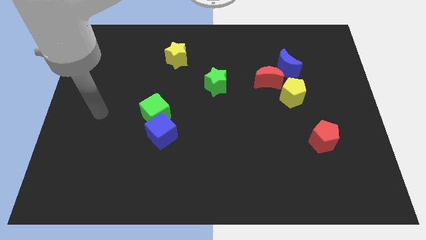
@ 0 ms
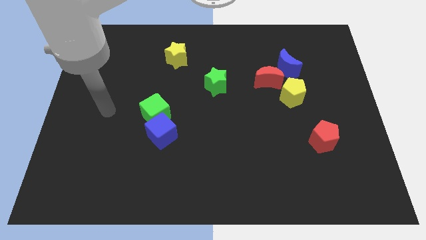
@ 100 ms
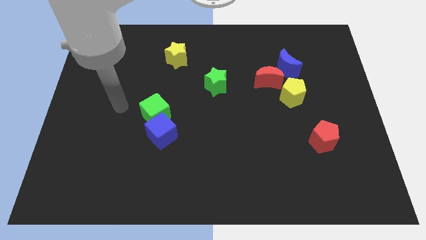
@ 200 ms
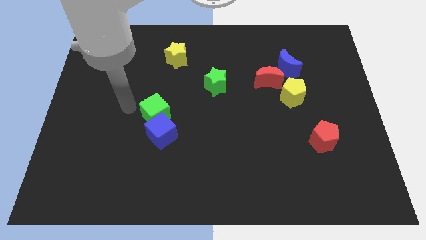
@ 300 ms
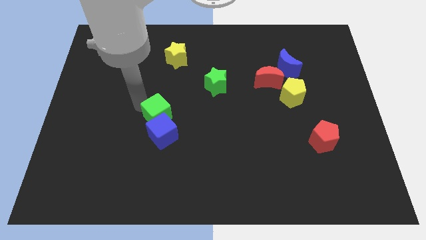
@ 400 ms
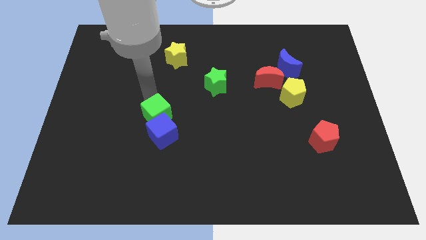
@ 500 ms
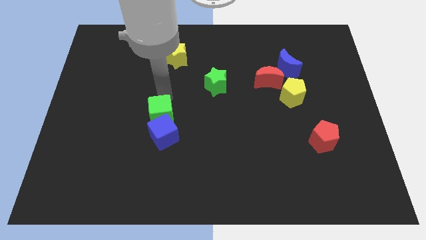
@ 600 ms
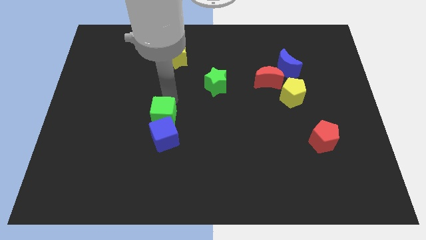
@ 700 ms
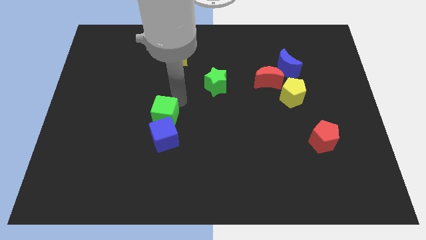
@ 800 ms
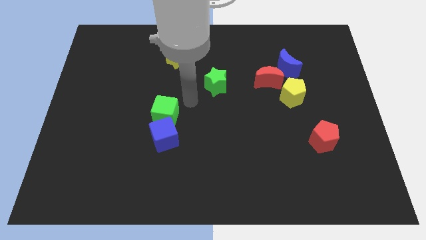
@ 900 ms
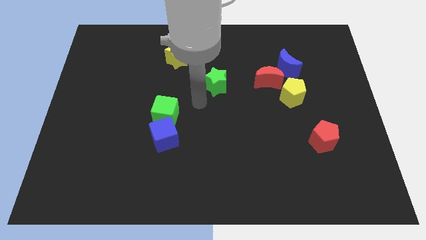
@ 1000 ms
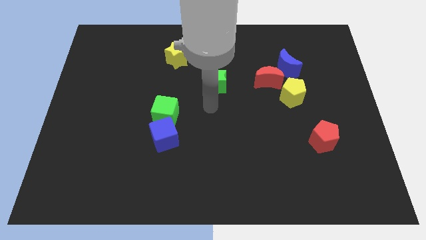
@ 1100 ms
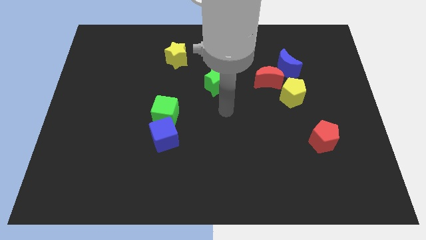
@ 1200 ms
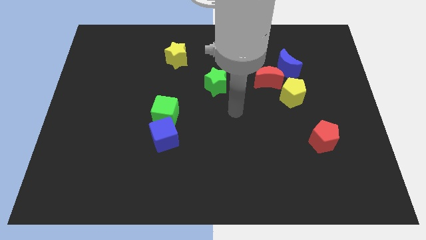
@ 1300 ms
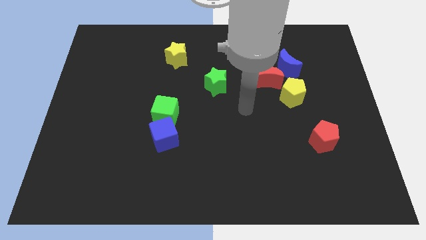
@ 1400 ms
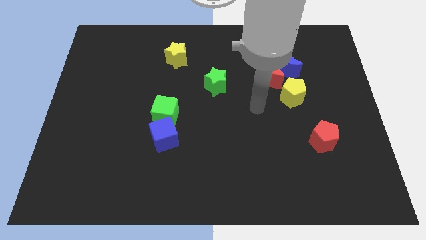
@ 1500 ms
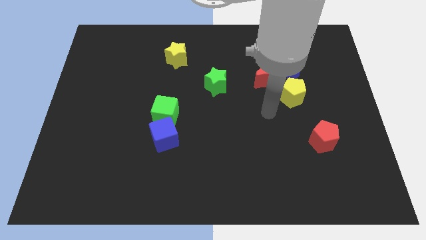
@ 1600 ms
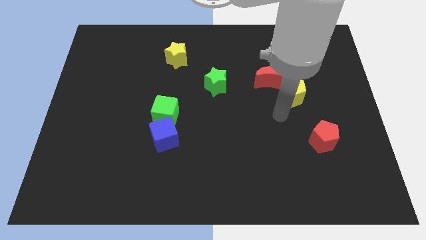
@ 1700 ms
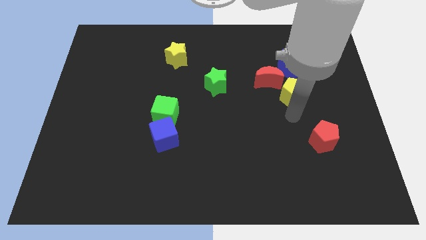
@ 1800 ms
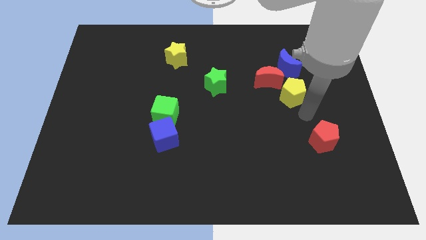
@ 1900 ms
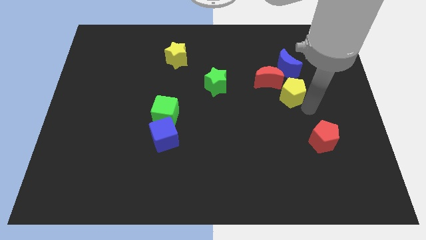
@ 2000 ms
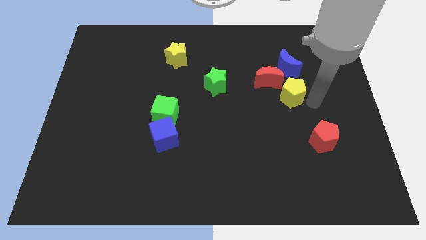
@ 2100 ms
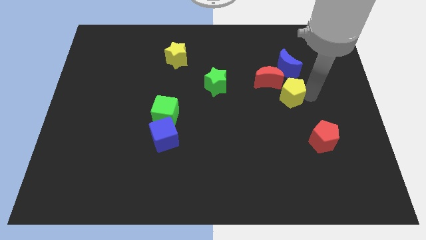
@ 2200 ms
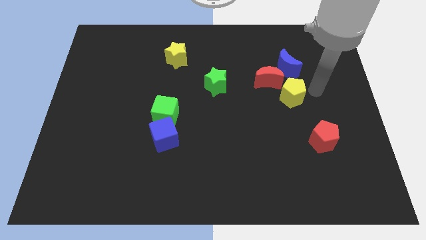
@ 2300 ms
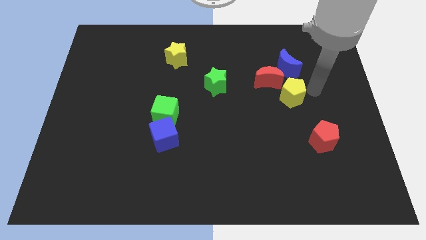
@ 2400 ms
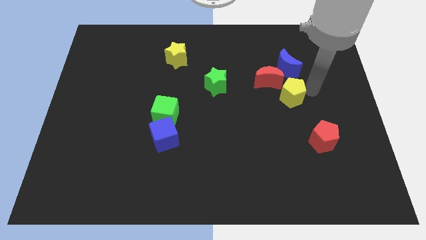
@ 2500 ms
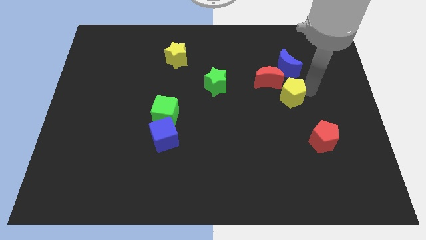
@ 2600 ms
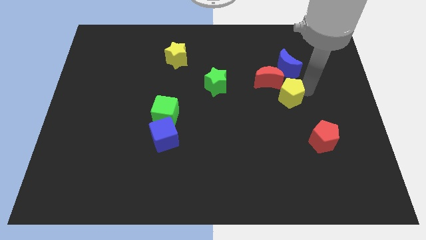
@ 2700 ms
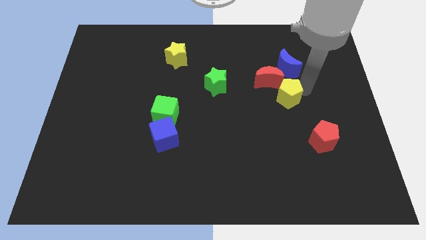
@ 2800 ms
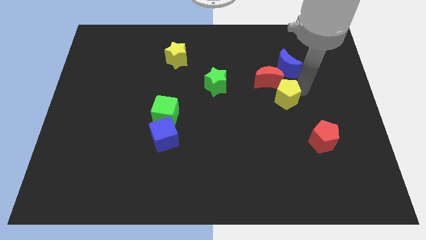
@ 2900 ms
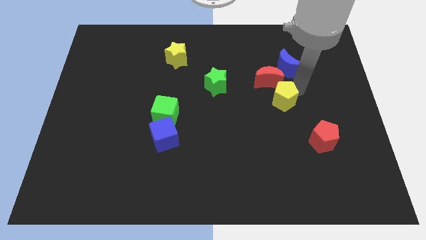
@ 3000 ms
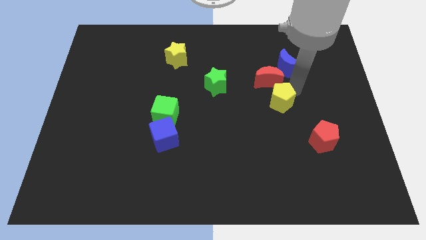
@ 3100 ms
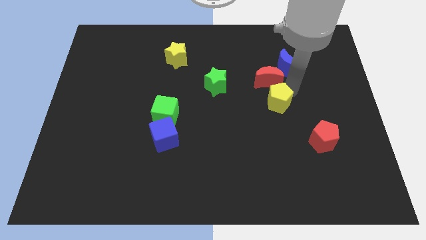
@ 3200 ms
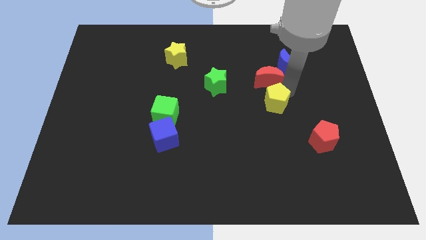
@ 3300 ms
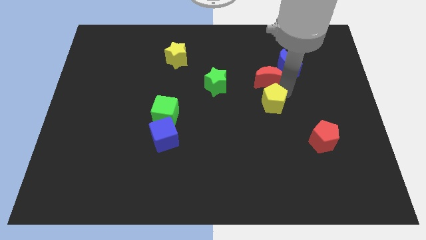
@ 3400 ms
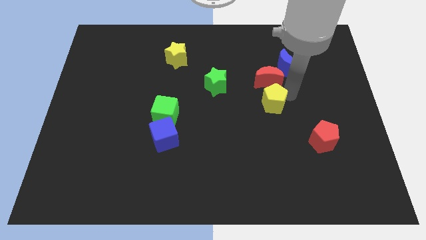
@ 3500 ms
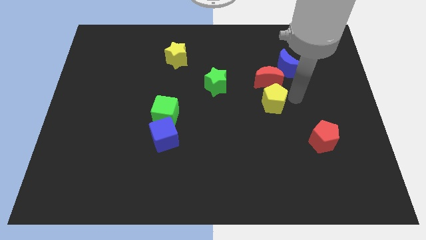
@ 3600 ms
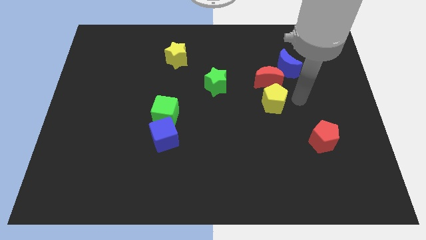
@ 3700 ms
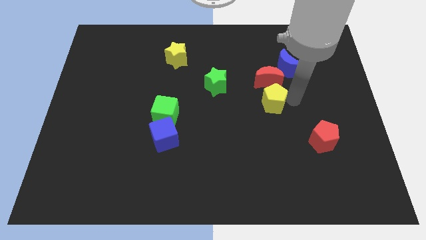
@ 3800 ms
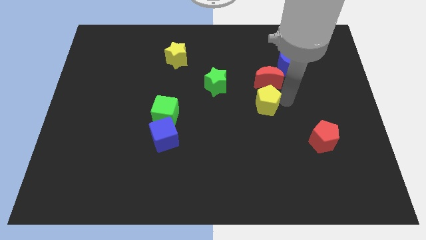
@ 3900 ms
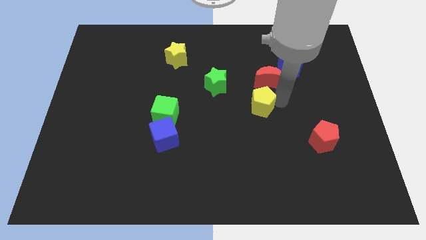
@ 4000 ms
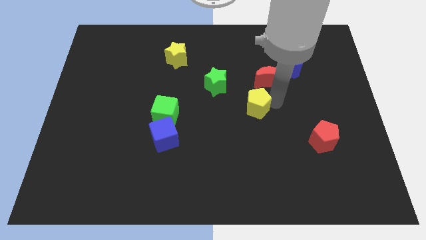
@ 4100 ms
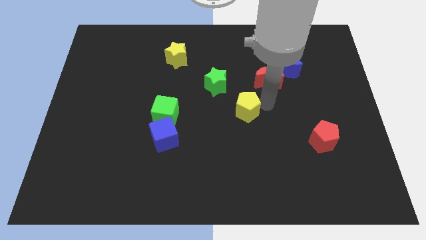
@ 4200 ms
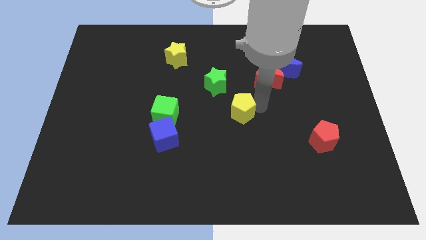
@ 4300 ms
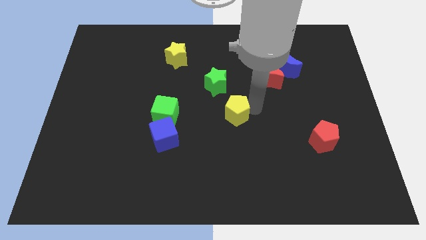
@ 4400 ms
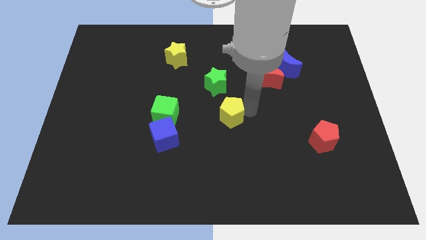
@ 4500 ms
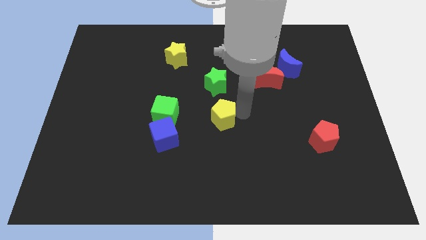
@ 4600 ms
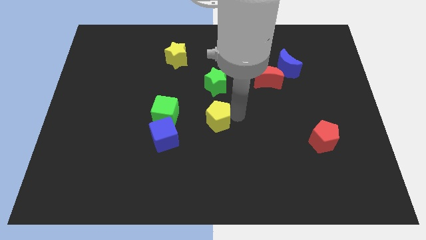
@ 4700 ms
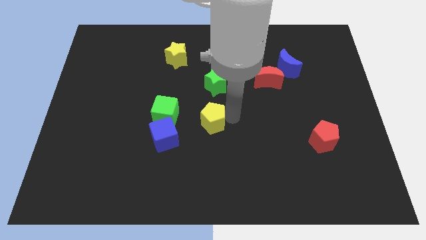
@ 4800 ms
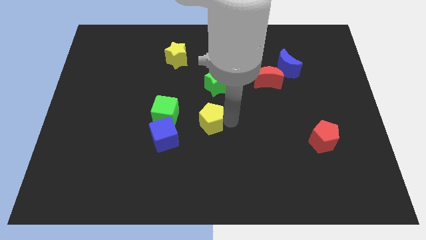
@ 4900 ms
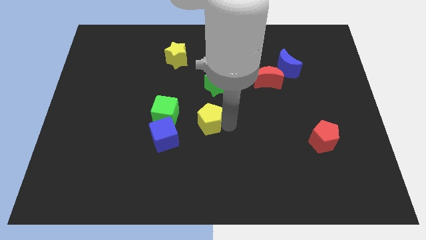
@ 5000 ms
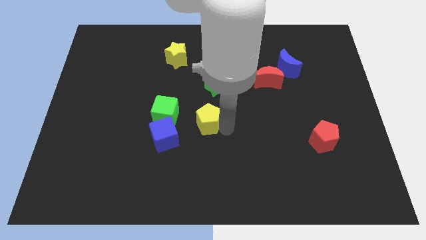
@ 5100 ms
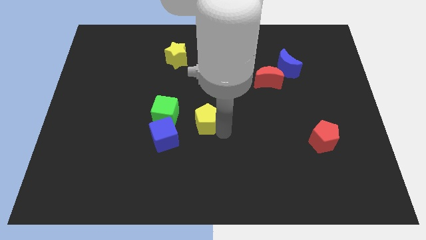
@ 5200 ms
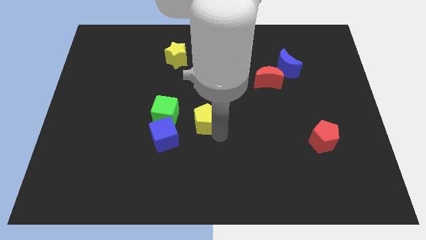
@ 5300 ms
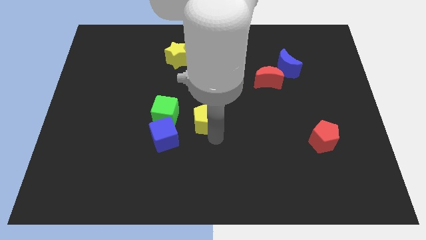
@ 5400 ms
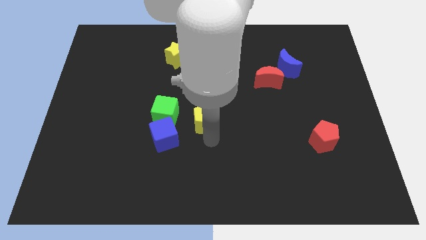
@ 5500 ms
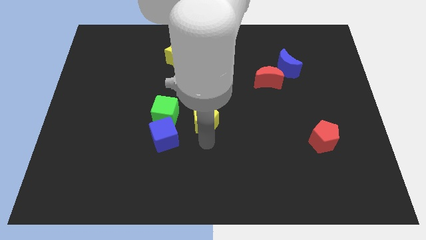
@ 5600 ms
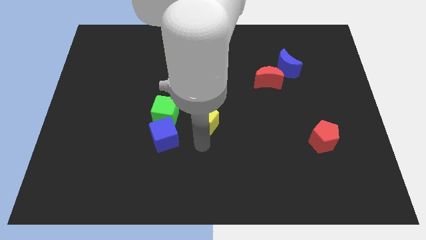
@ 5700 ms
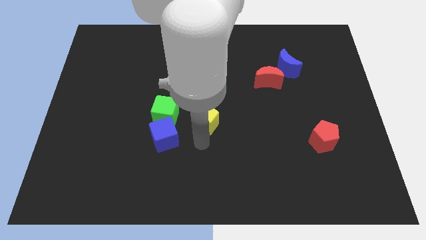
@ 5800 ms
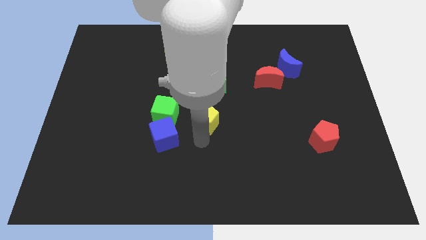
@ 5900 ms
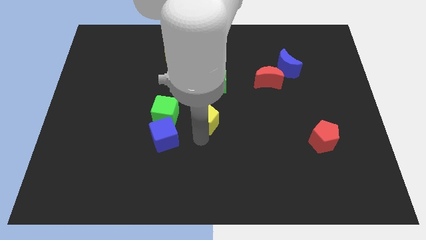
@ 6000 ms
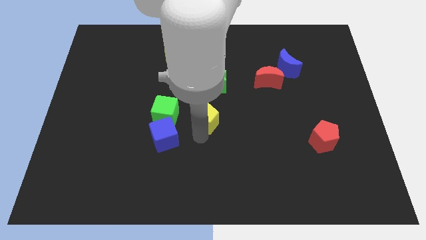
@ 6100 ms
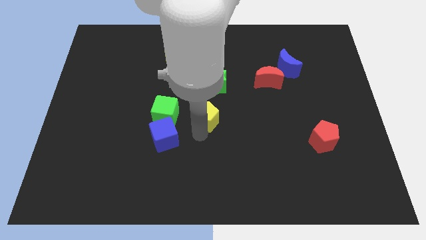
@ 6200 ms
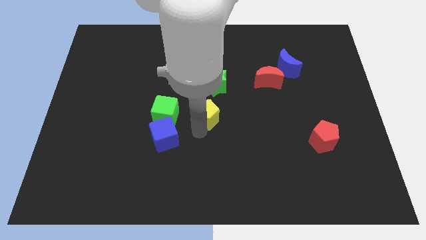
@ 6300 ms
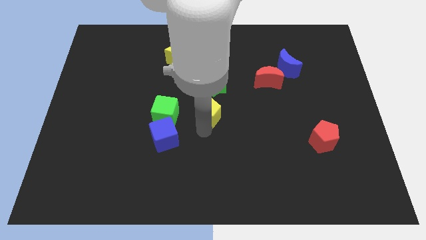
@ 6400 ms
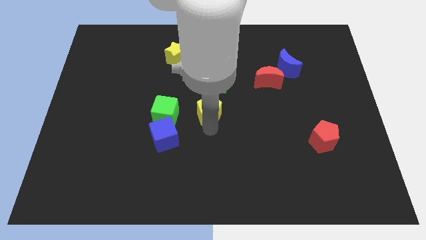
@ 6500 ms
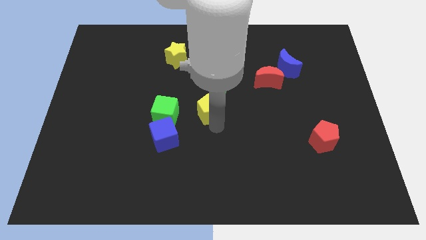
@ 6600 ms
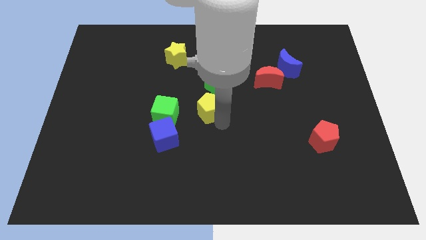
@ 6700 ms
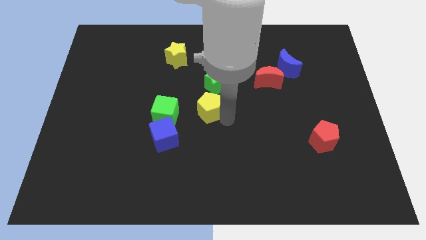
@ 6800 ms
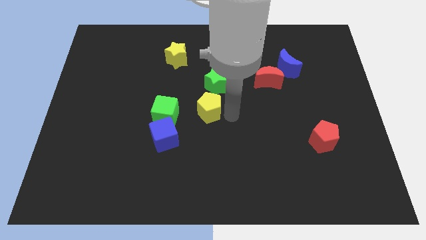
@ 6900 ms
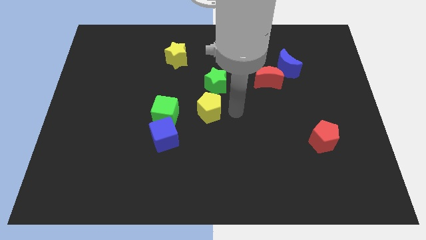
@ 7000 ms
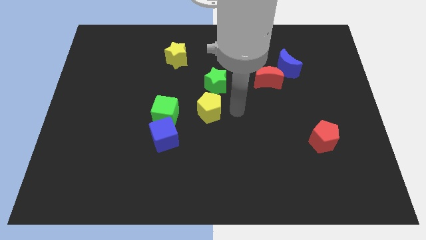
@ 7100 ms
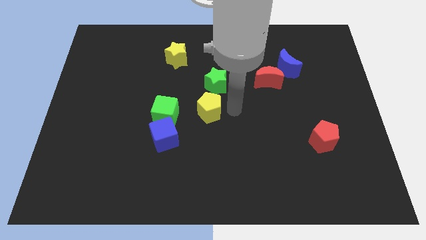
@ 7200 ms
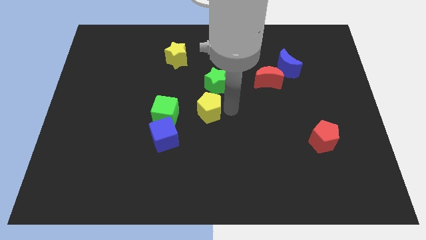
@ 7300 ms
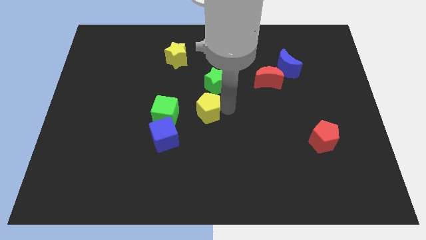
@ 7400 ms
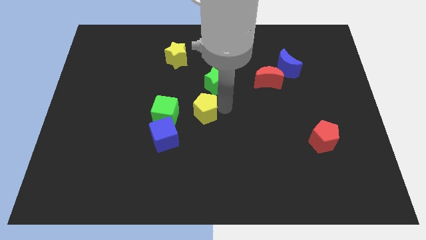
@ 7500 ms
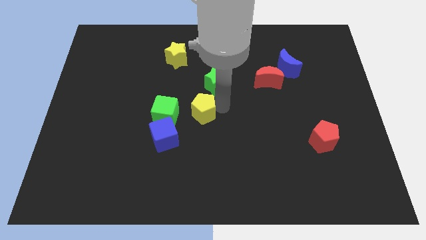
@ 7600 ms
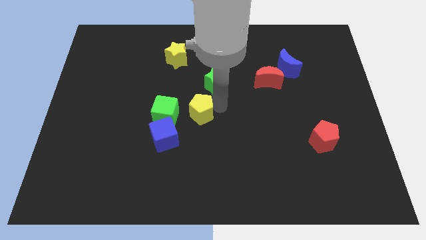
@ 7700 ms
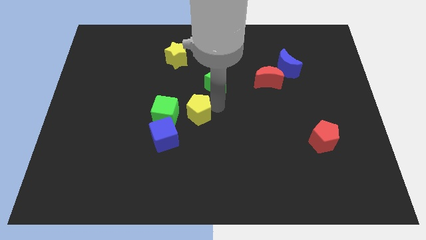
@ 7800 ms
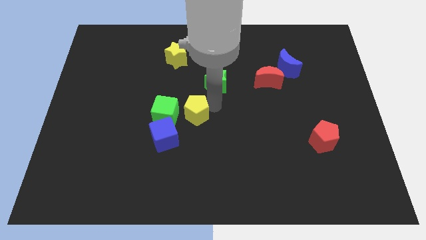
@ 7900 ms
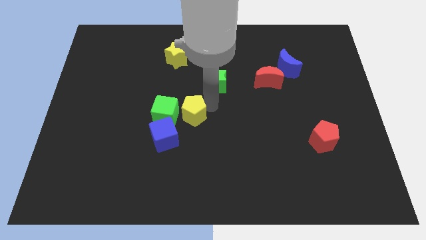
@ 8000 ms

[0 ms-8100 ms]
push the yellow pentagon next to the green cube

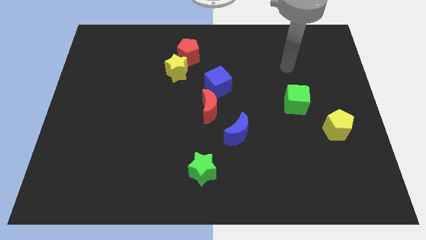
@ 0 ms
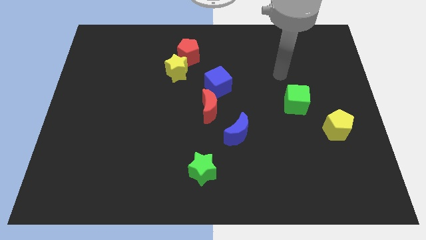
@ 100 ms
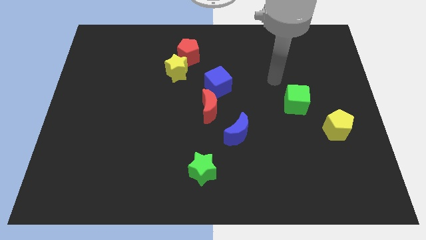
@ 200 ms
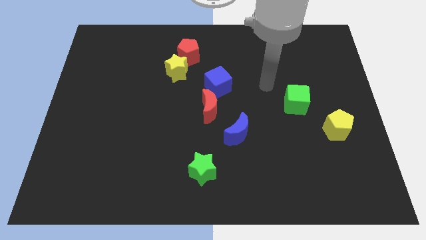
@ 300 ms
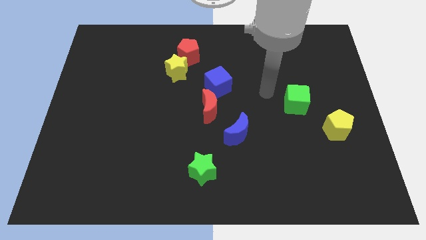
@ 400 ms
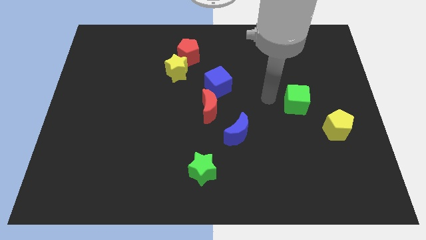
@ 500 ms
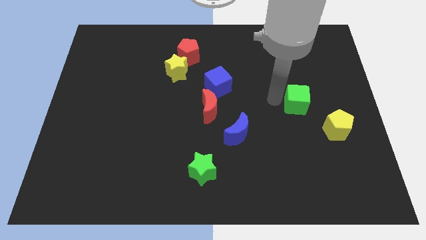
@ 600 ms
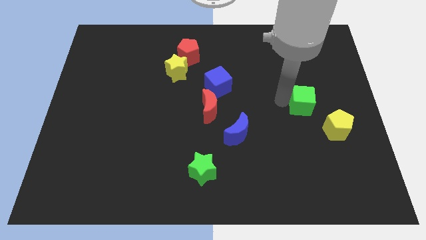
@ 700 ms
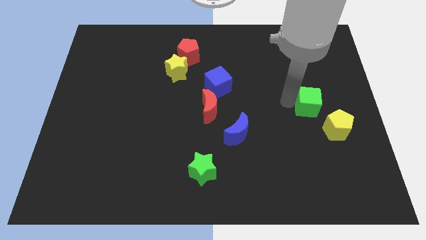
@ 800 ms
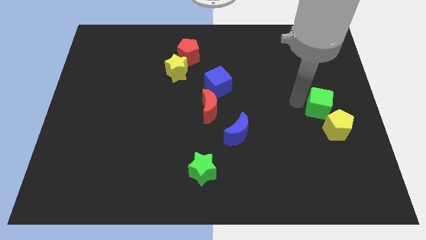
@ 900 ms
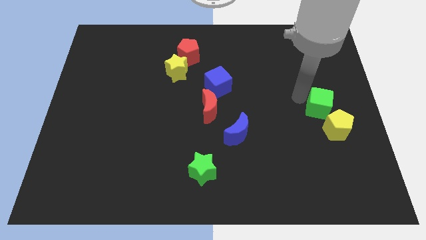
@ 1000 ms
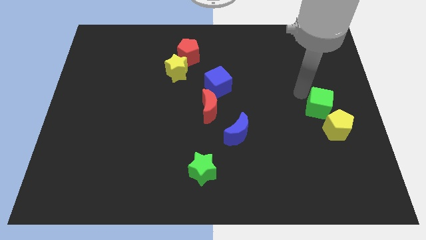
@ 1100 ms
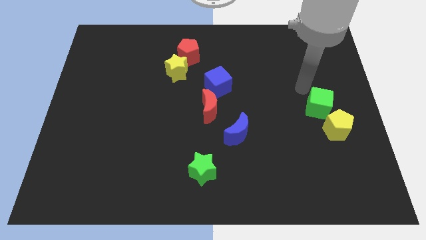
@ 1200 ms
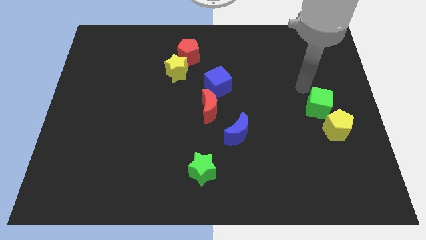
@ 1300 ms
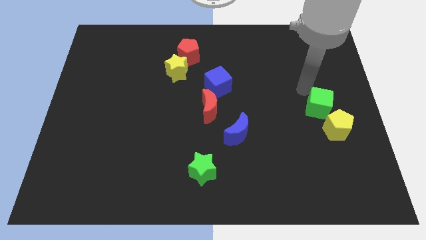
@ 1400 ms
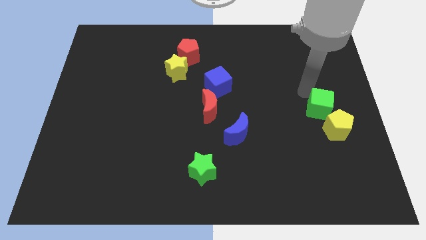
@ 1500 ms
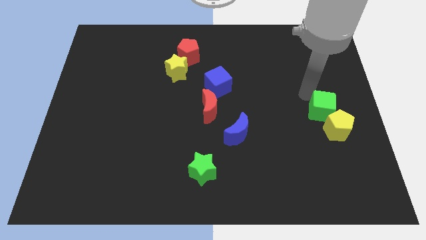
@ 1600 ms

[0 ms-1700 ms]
put the green cube next to the yellow pentagon
